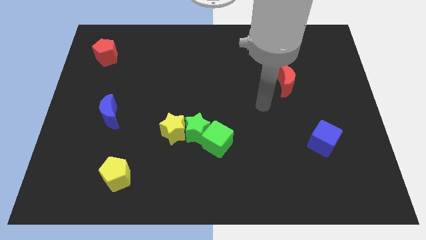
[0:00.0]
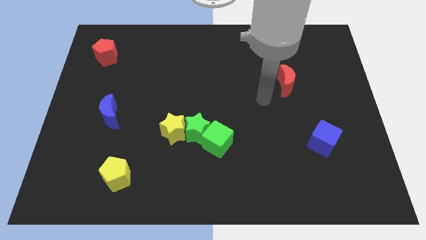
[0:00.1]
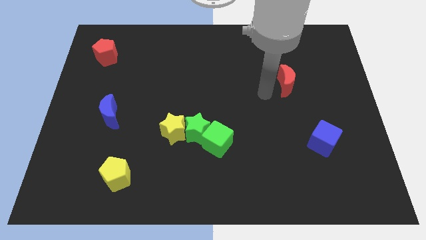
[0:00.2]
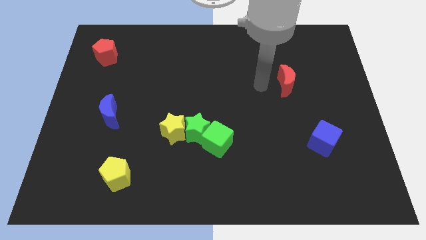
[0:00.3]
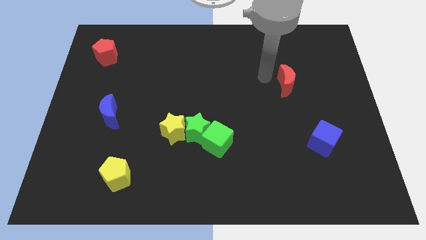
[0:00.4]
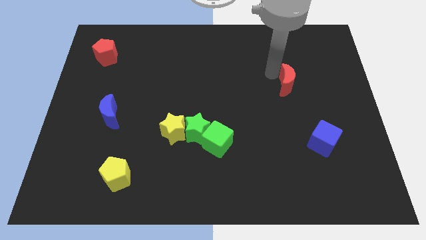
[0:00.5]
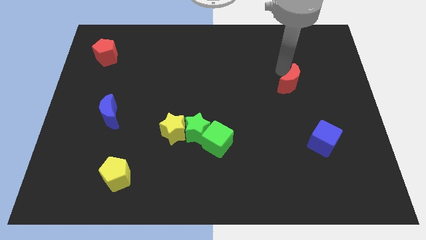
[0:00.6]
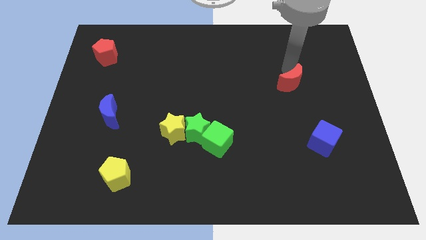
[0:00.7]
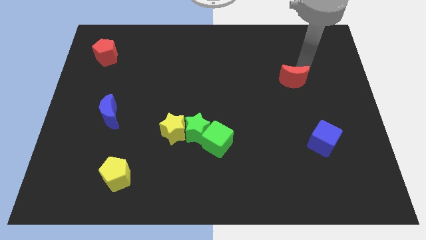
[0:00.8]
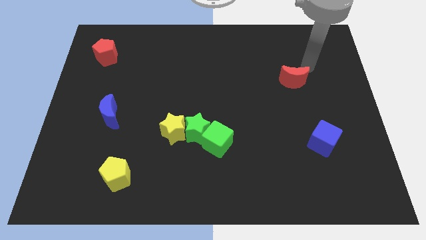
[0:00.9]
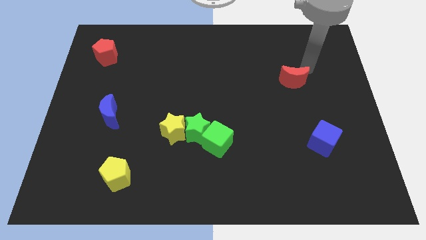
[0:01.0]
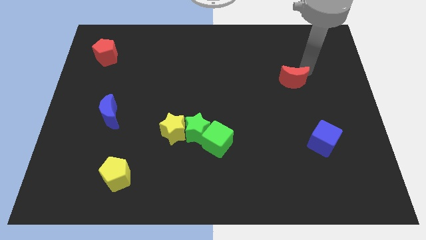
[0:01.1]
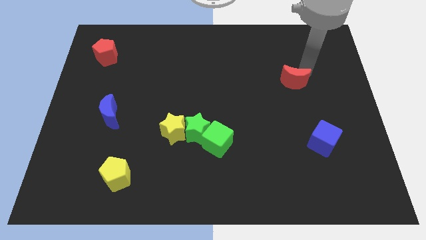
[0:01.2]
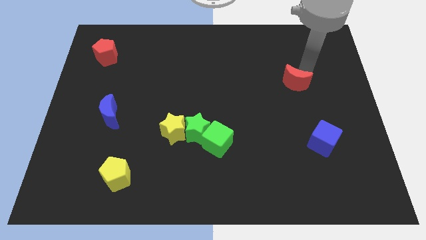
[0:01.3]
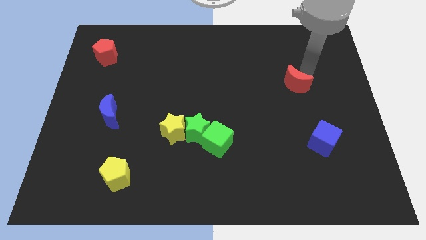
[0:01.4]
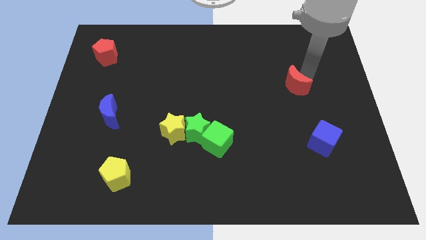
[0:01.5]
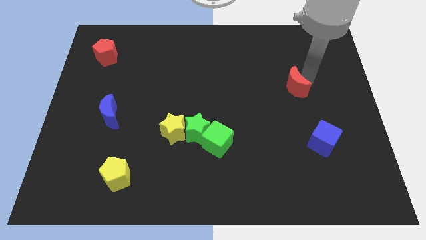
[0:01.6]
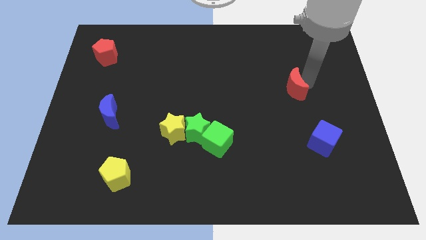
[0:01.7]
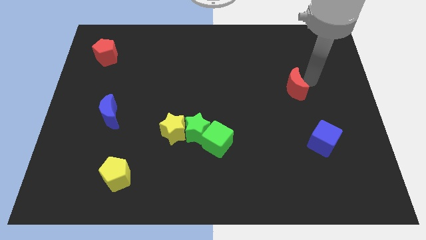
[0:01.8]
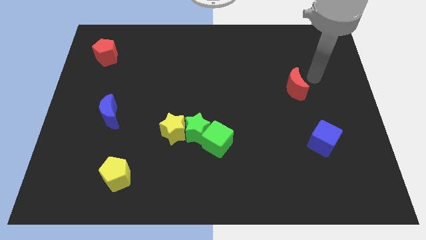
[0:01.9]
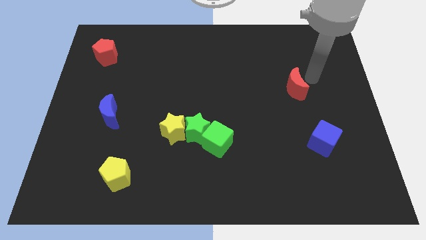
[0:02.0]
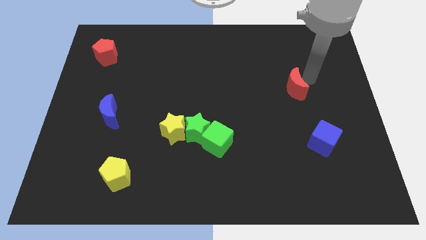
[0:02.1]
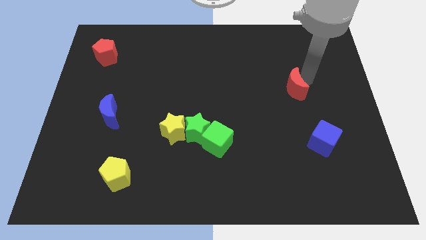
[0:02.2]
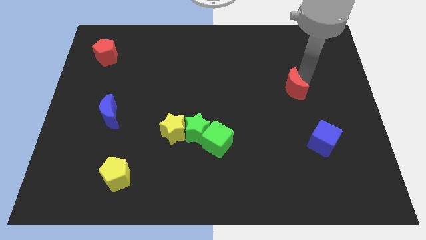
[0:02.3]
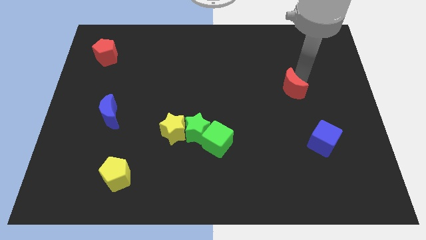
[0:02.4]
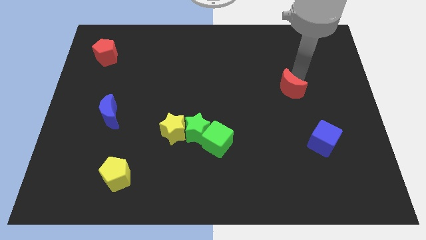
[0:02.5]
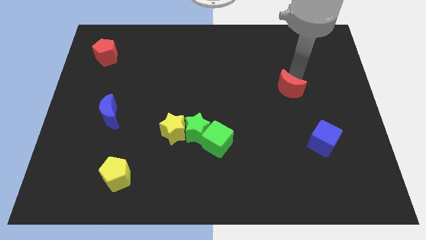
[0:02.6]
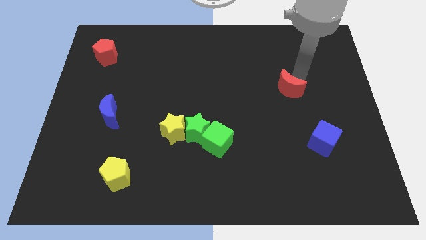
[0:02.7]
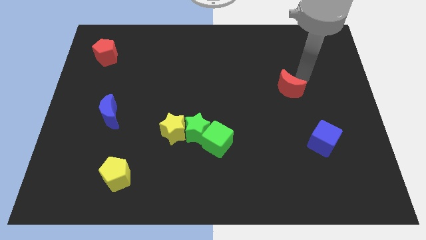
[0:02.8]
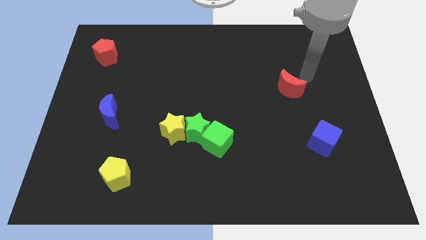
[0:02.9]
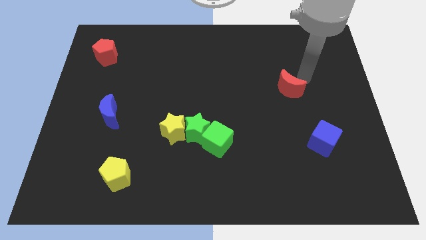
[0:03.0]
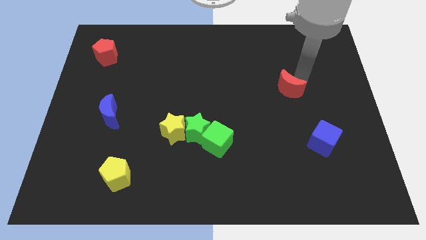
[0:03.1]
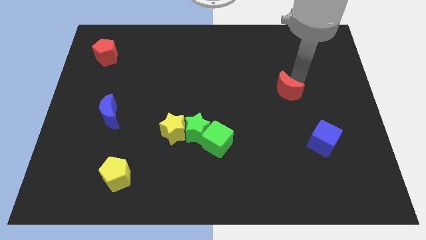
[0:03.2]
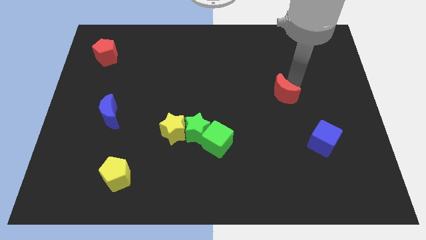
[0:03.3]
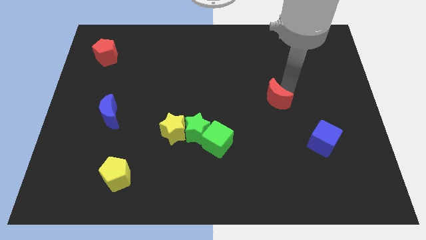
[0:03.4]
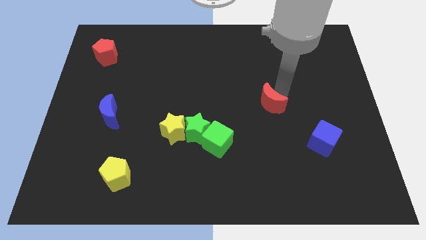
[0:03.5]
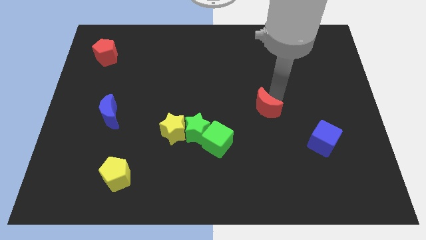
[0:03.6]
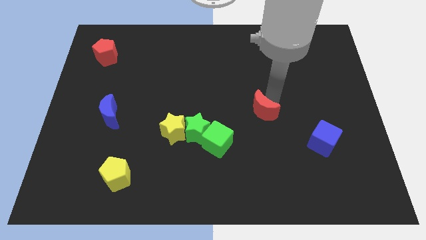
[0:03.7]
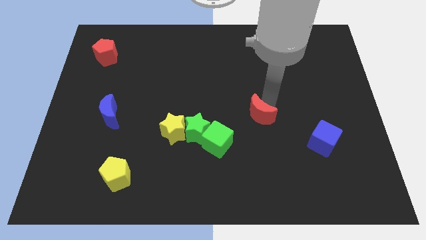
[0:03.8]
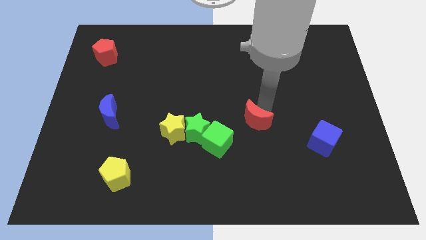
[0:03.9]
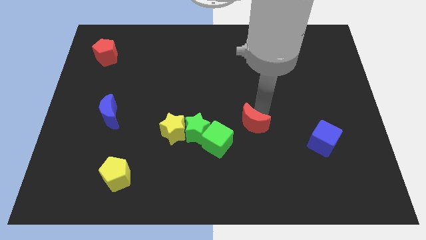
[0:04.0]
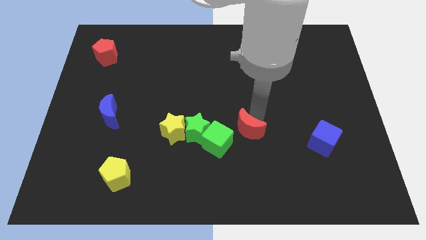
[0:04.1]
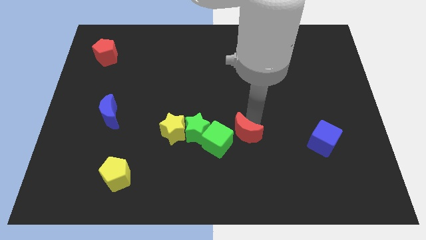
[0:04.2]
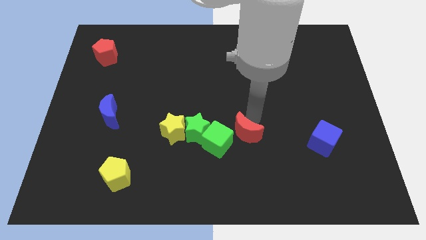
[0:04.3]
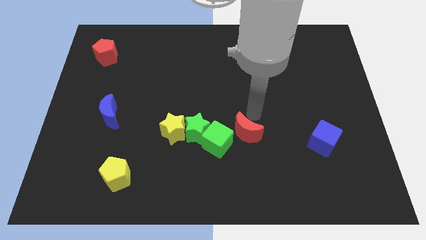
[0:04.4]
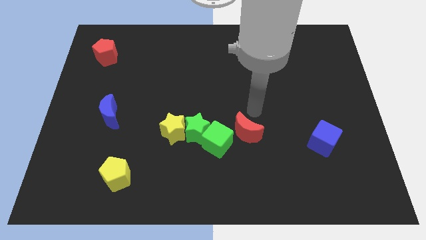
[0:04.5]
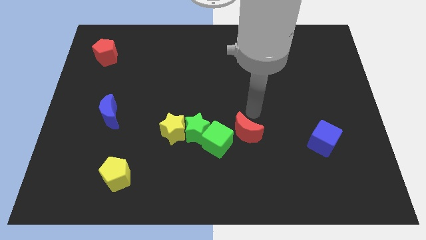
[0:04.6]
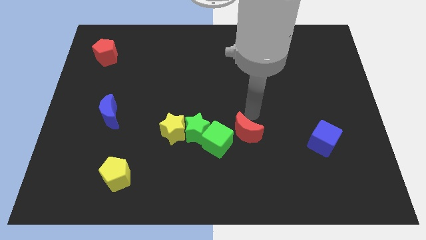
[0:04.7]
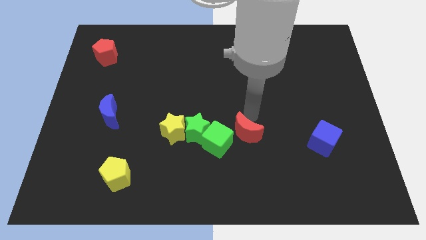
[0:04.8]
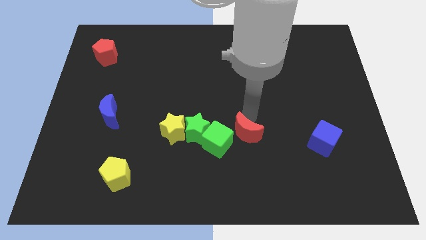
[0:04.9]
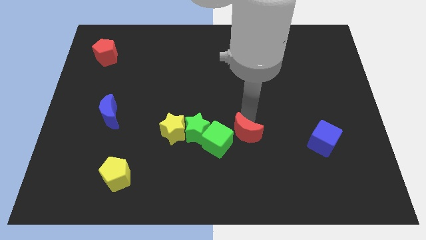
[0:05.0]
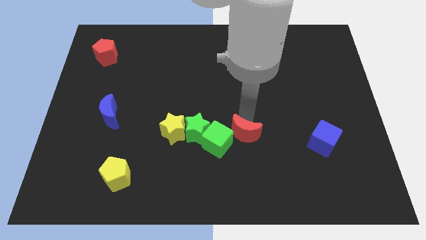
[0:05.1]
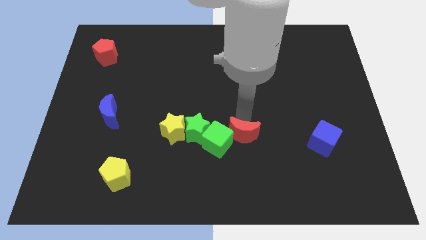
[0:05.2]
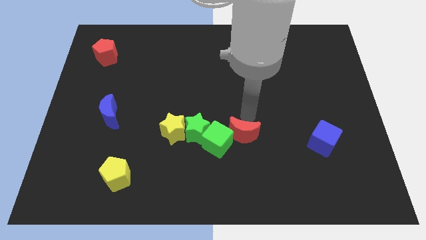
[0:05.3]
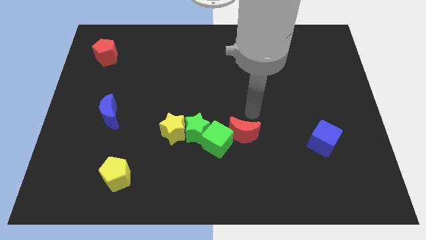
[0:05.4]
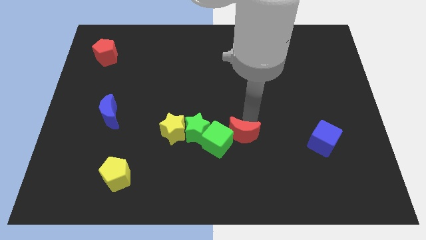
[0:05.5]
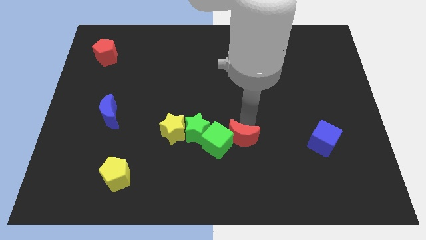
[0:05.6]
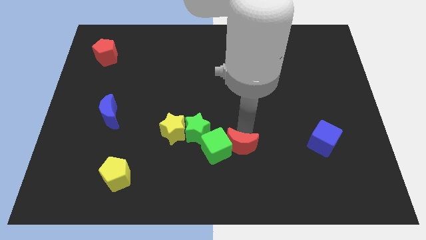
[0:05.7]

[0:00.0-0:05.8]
move the red moon down and then left

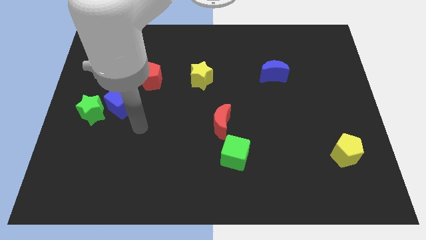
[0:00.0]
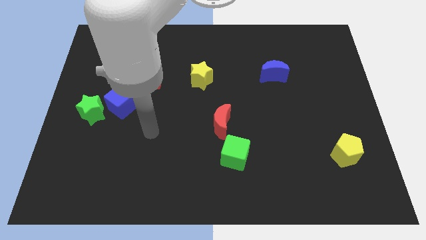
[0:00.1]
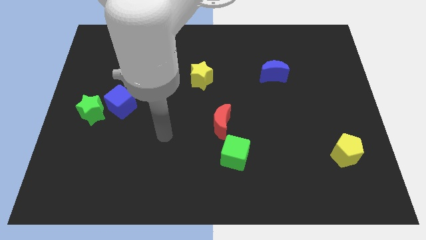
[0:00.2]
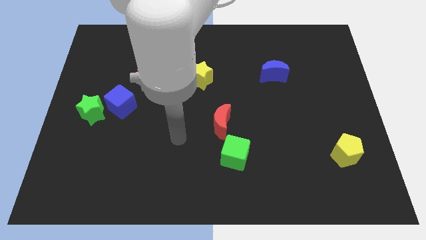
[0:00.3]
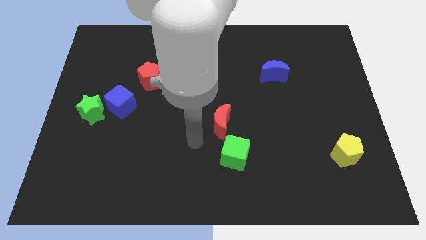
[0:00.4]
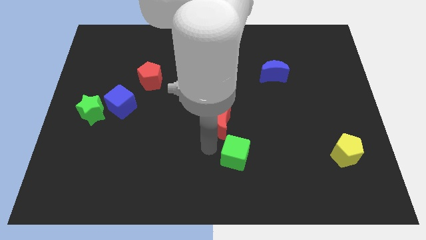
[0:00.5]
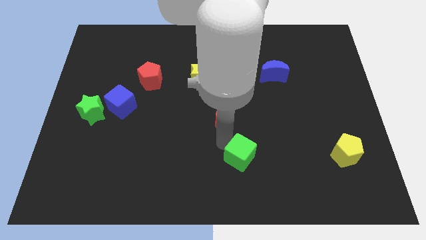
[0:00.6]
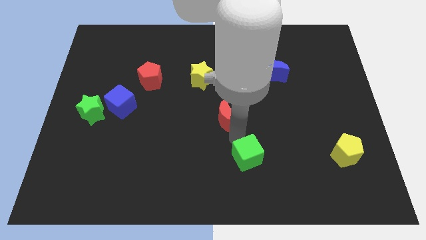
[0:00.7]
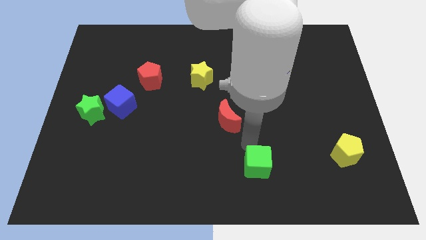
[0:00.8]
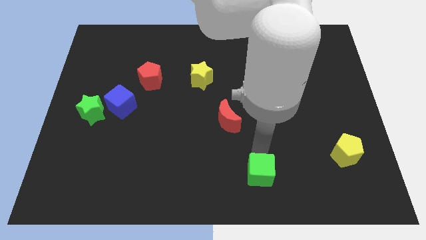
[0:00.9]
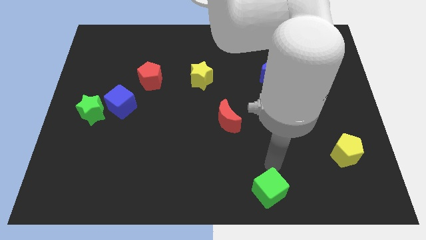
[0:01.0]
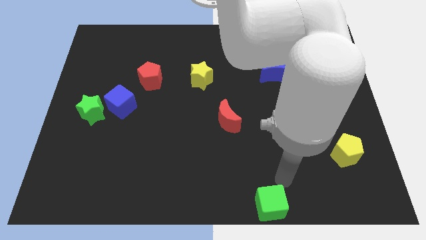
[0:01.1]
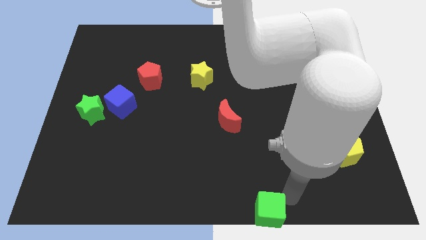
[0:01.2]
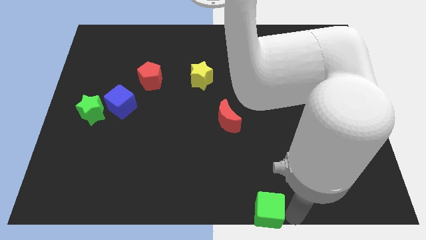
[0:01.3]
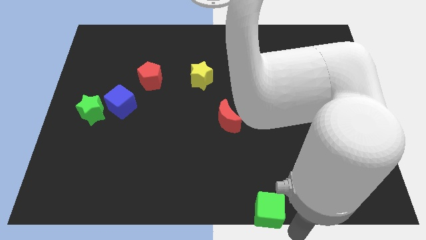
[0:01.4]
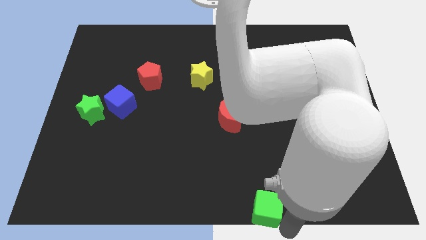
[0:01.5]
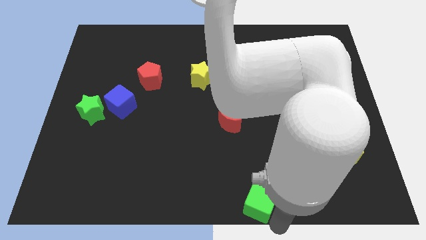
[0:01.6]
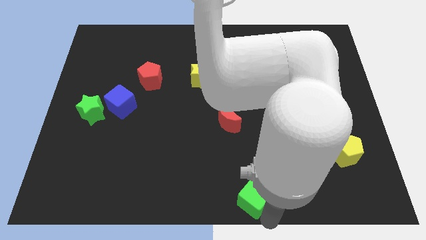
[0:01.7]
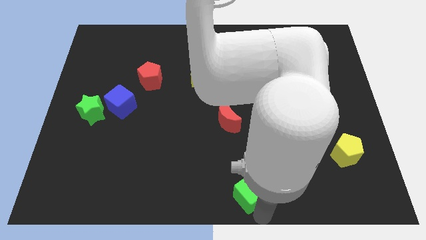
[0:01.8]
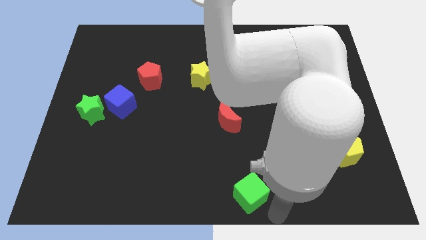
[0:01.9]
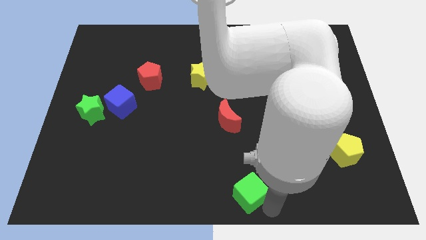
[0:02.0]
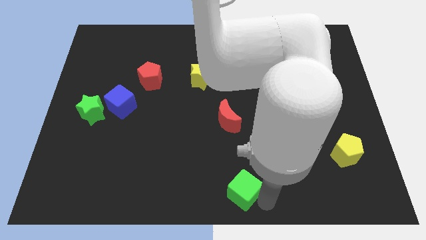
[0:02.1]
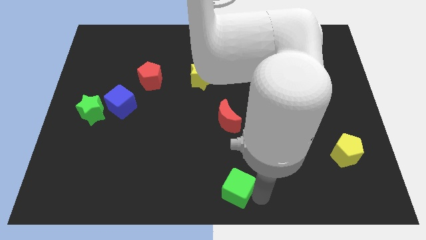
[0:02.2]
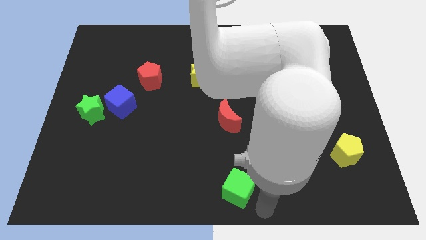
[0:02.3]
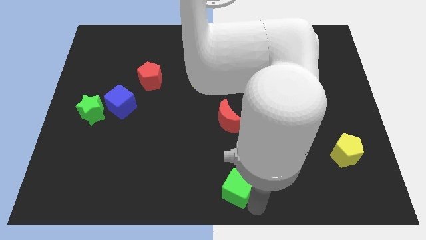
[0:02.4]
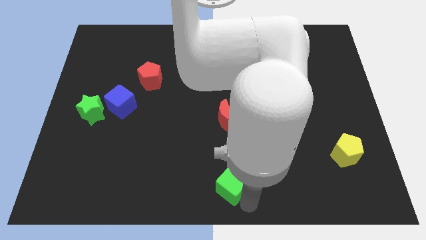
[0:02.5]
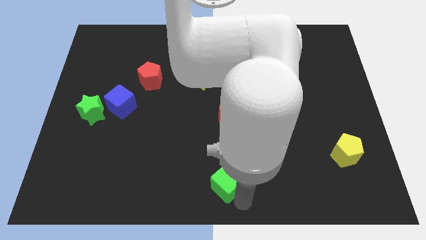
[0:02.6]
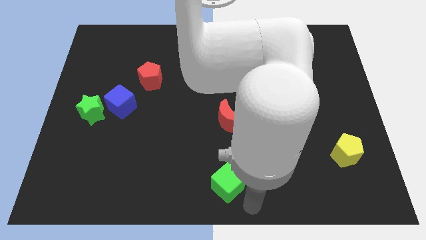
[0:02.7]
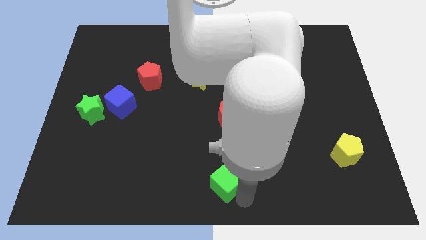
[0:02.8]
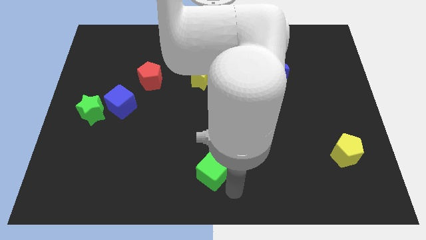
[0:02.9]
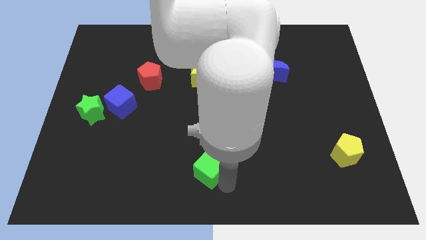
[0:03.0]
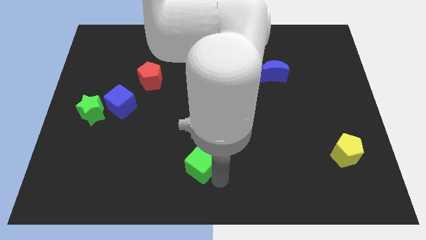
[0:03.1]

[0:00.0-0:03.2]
slightly push the green cube to the left
